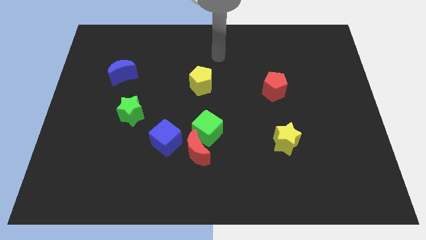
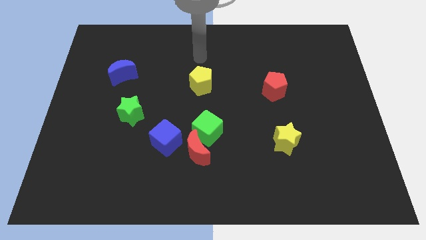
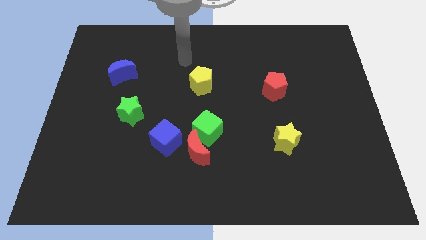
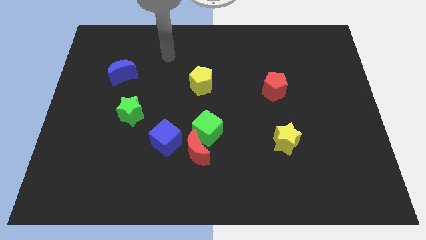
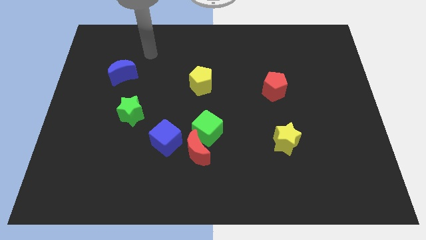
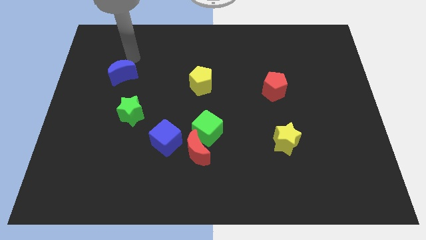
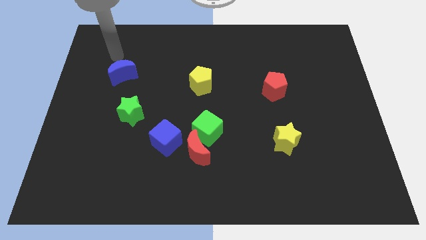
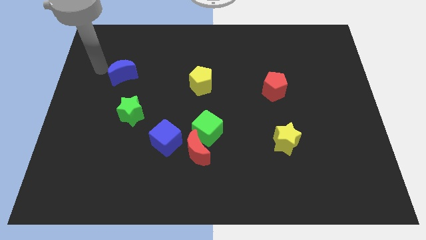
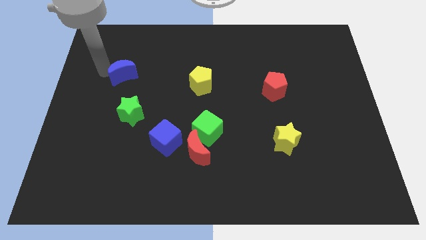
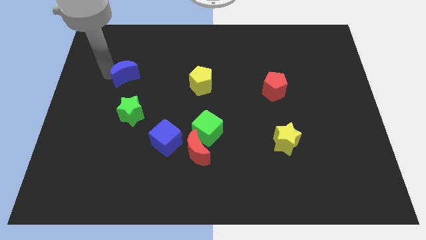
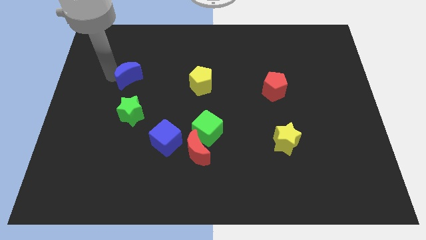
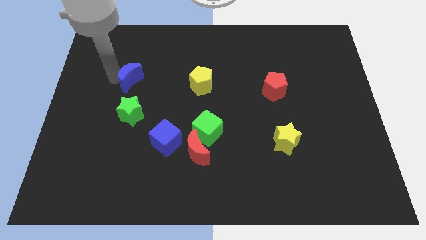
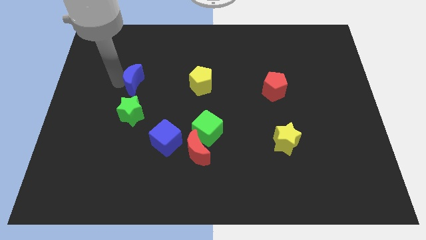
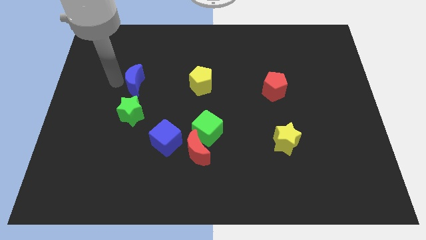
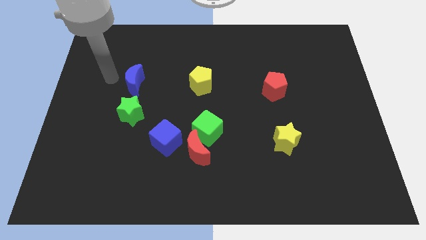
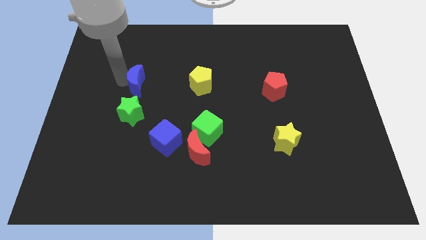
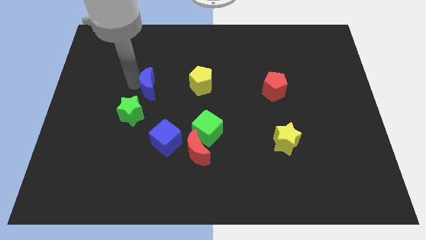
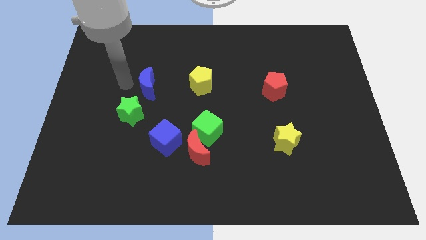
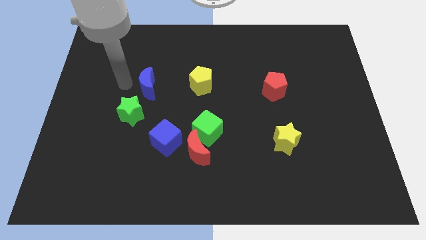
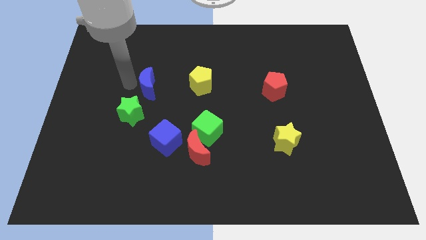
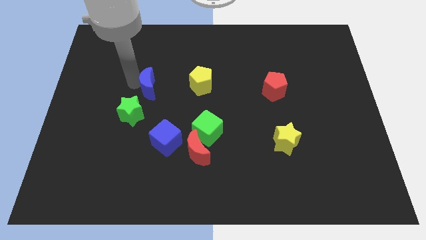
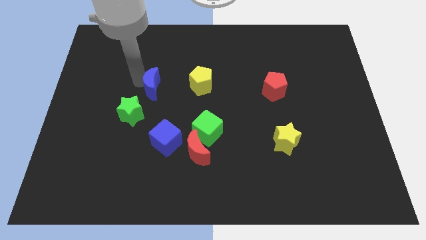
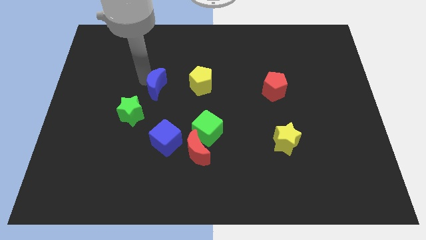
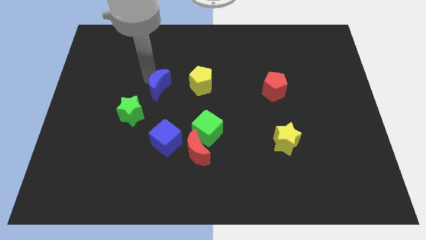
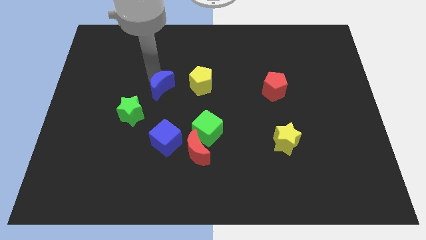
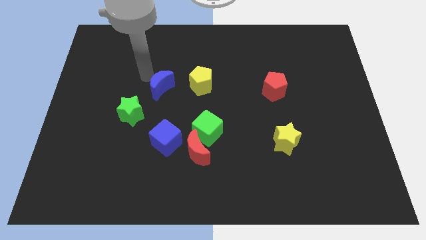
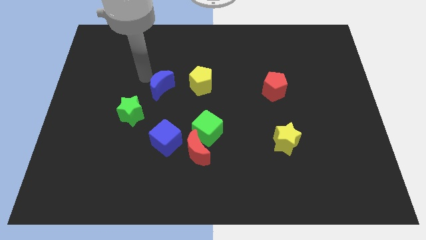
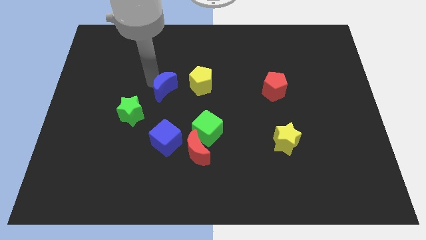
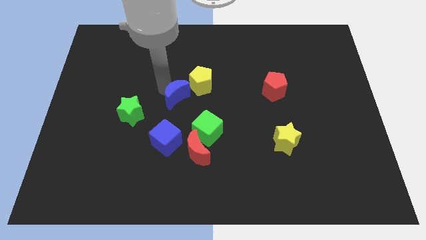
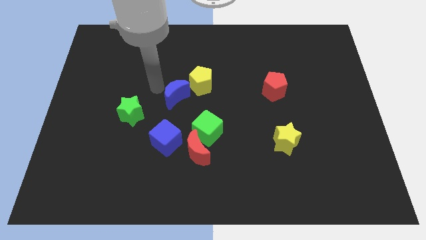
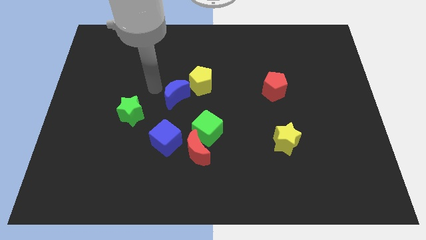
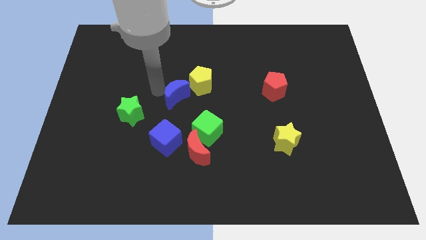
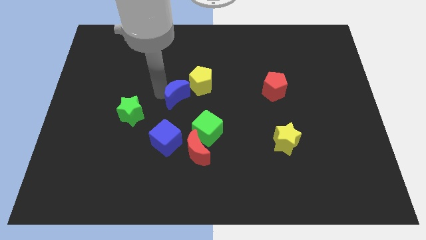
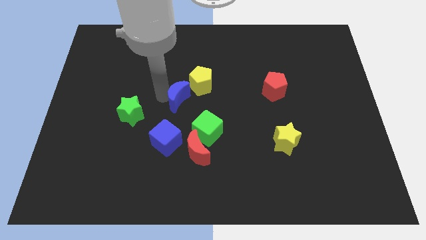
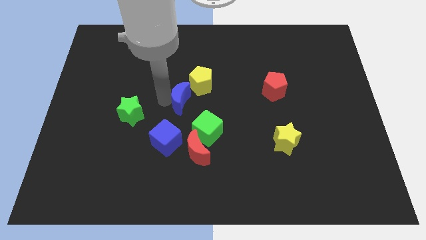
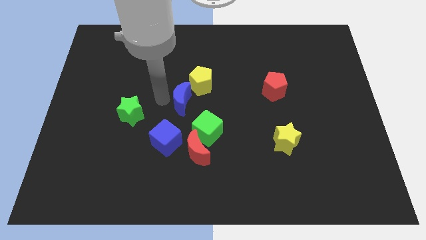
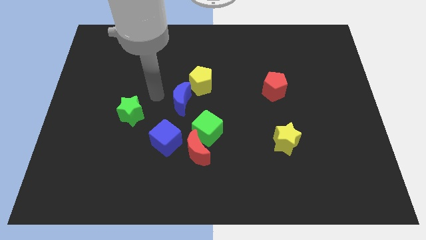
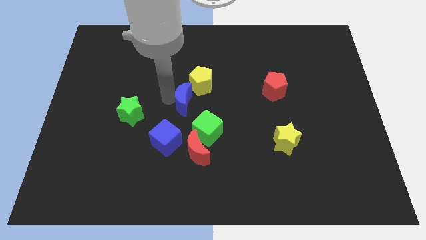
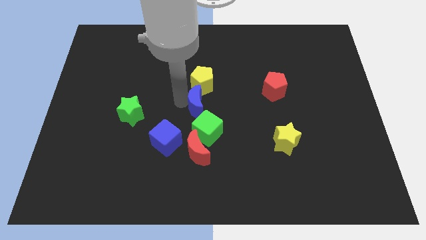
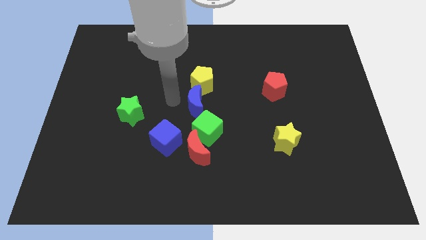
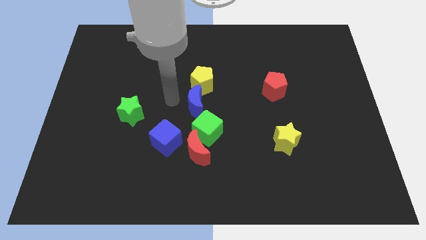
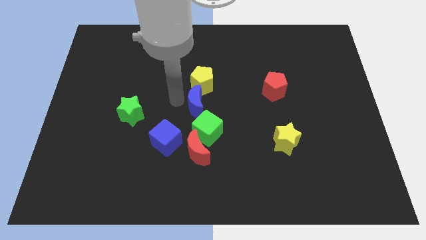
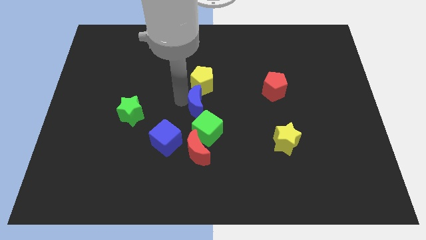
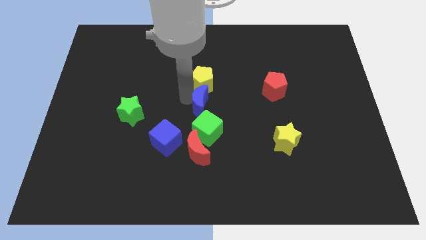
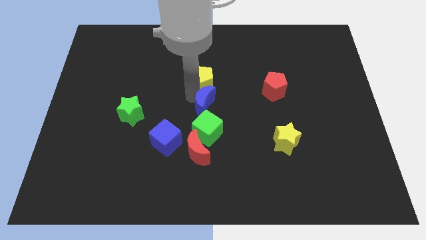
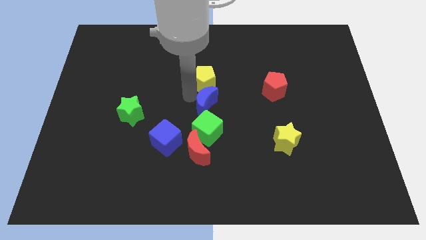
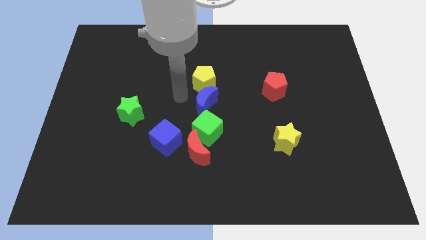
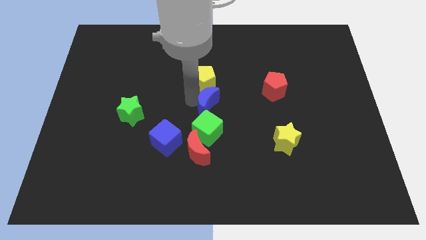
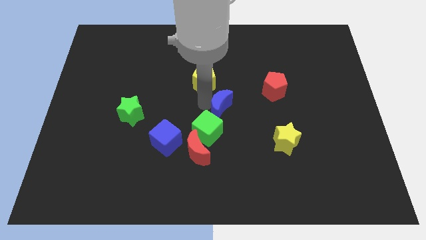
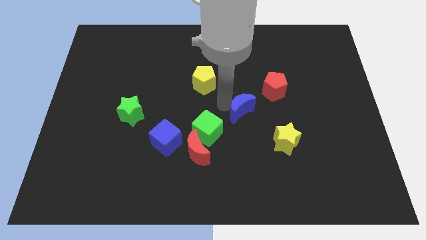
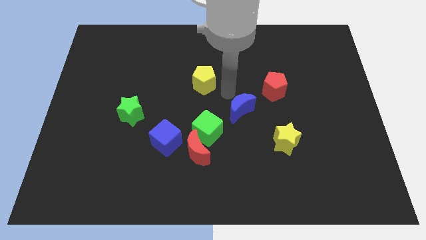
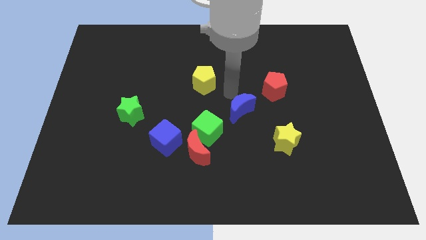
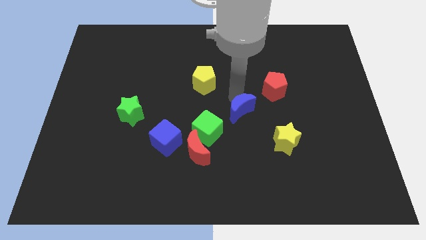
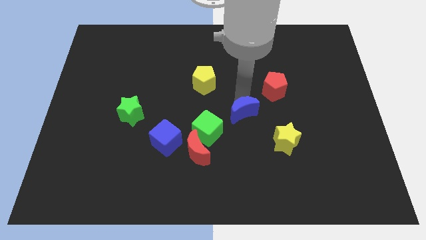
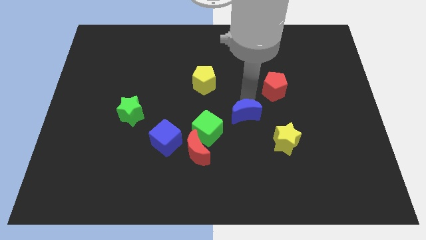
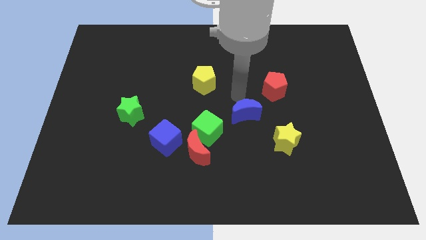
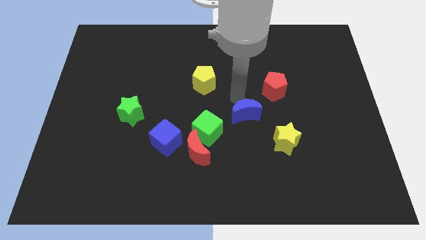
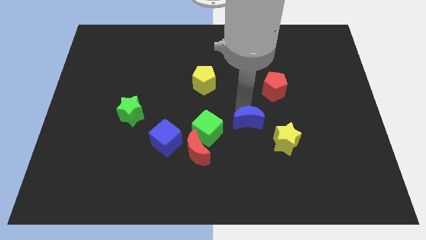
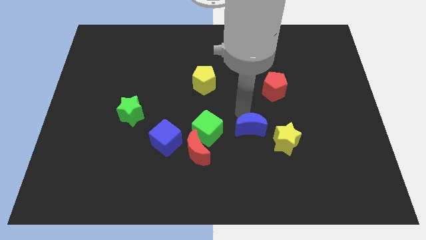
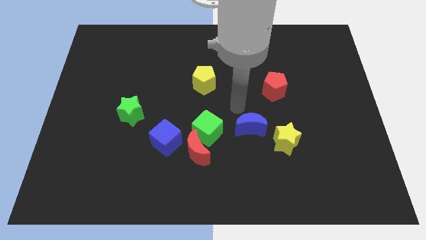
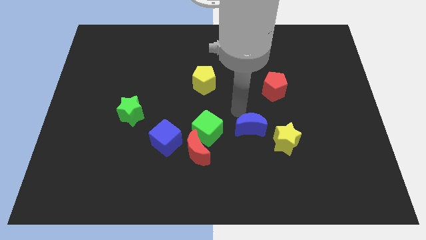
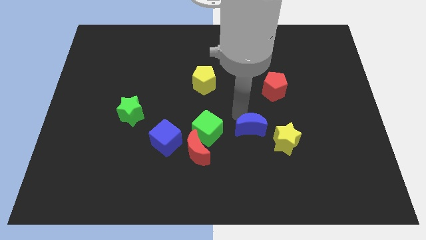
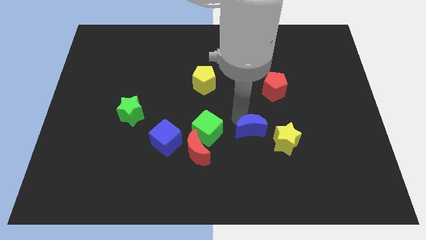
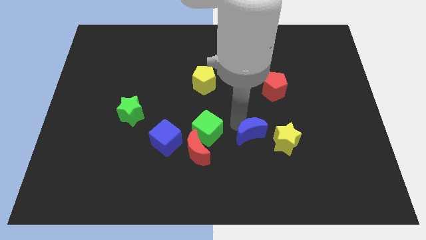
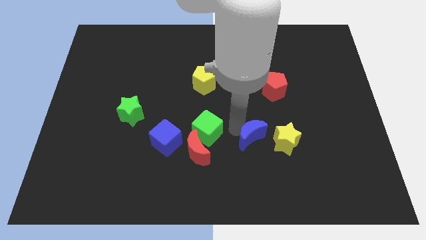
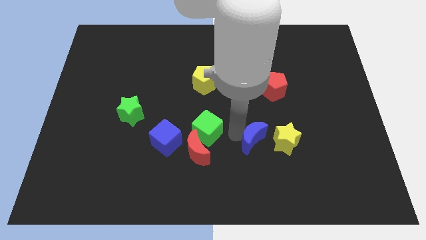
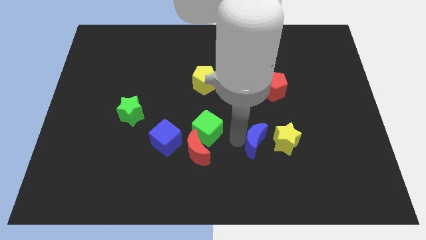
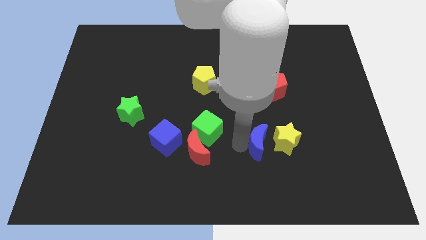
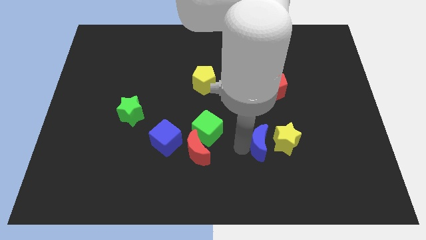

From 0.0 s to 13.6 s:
put the blue moon to the yellow star
